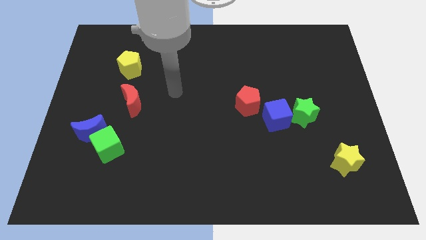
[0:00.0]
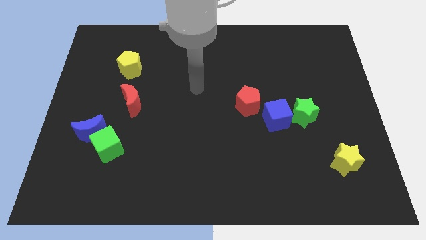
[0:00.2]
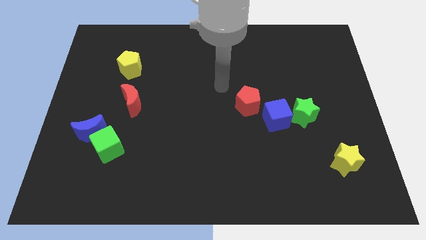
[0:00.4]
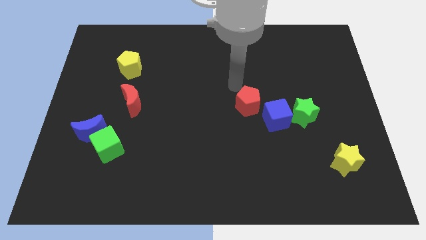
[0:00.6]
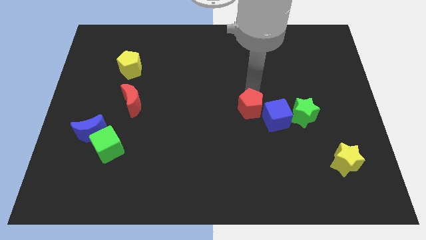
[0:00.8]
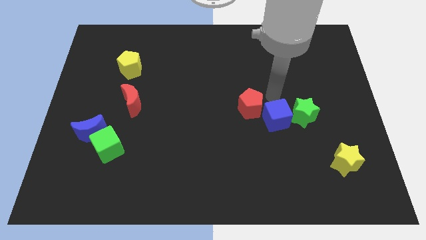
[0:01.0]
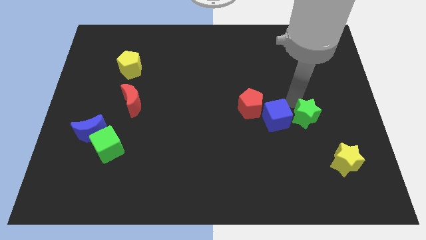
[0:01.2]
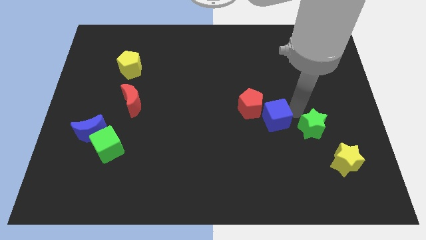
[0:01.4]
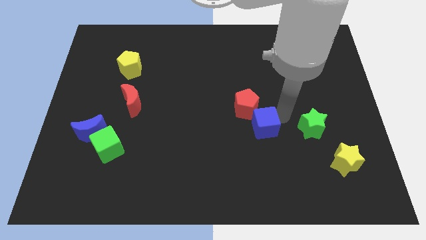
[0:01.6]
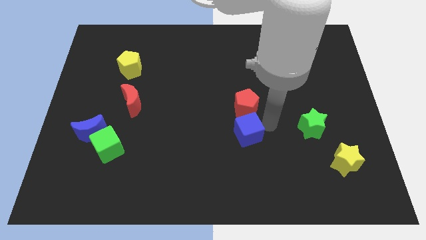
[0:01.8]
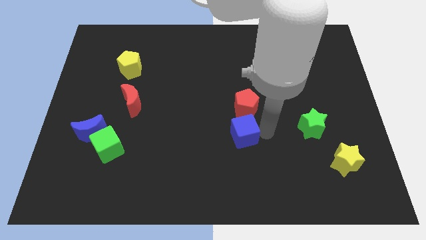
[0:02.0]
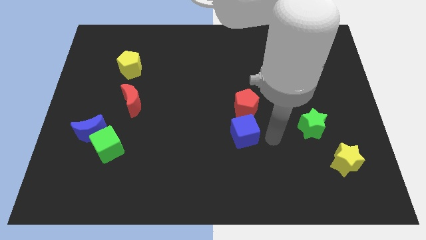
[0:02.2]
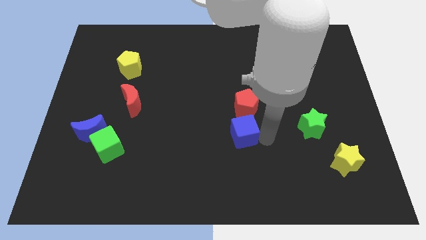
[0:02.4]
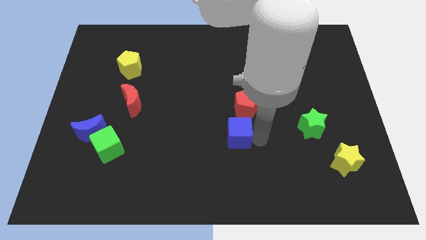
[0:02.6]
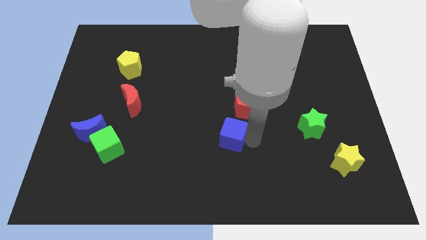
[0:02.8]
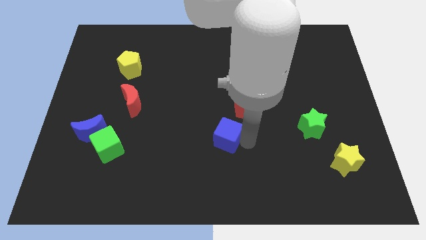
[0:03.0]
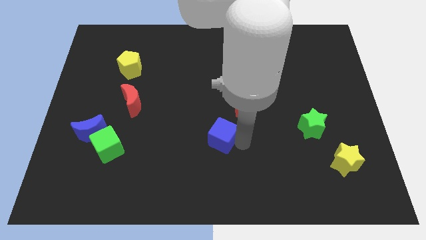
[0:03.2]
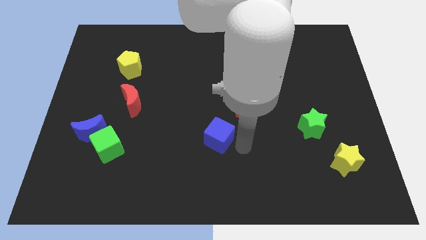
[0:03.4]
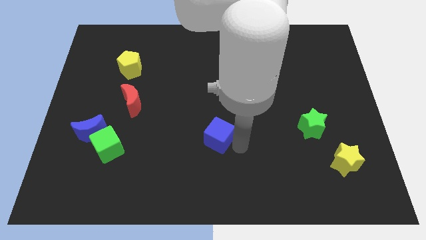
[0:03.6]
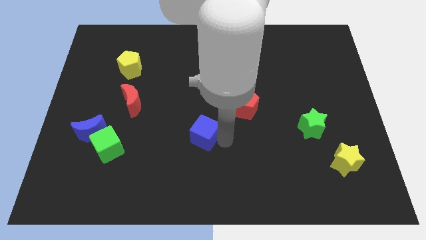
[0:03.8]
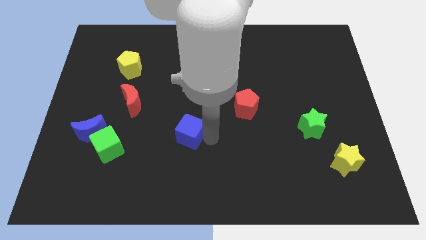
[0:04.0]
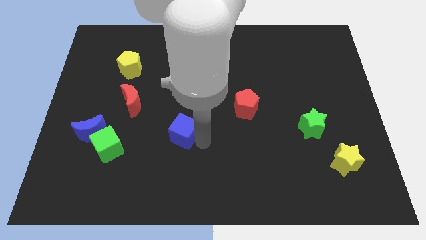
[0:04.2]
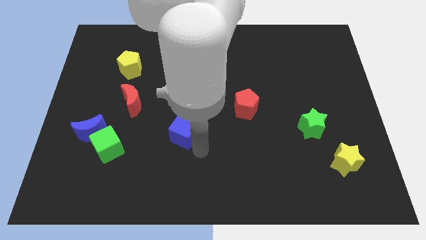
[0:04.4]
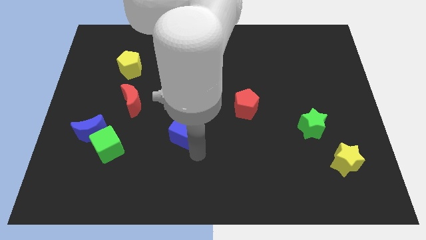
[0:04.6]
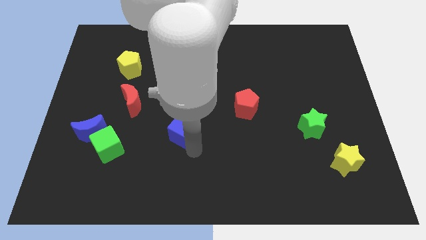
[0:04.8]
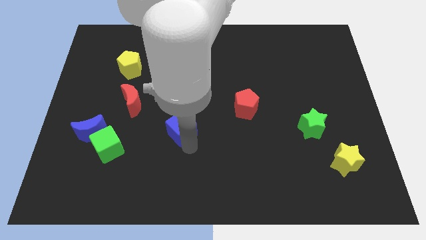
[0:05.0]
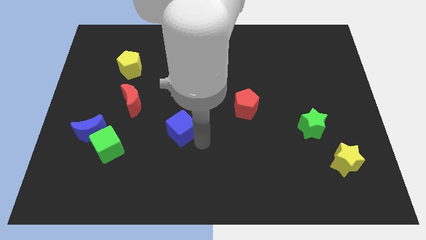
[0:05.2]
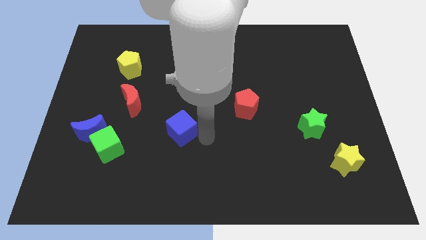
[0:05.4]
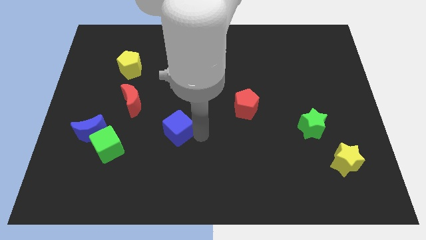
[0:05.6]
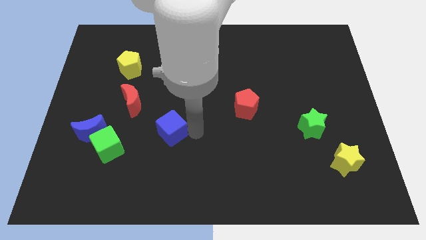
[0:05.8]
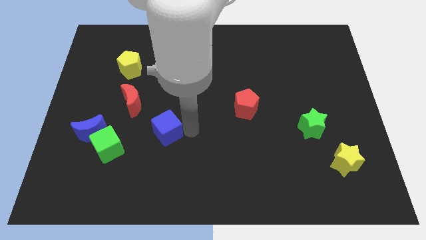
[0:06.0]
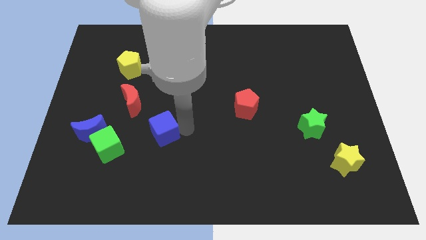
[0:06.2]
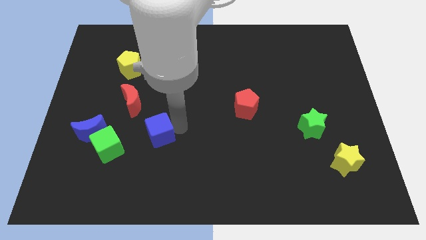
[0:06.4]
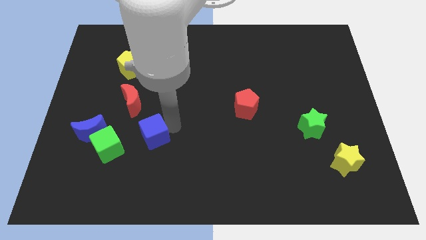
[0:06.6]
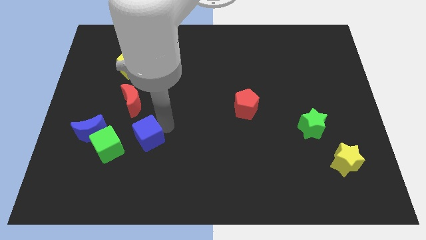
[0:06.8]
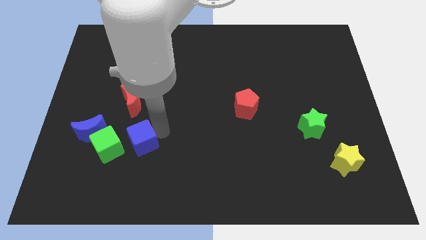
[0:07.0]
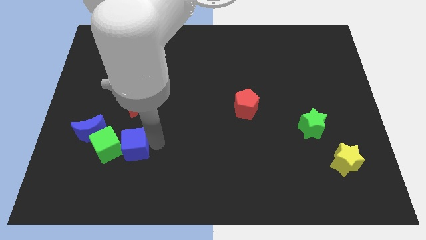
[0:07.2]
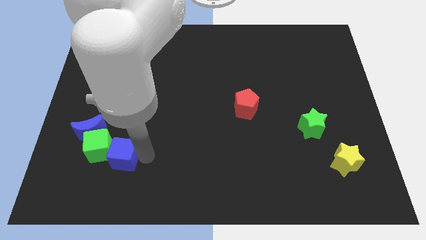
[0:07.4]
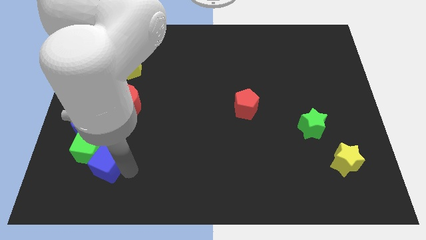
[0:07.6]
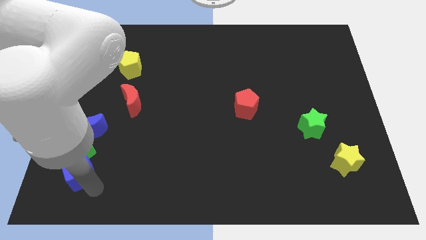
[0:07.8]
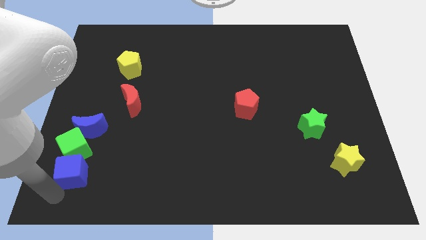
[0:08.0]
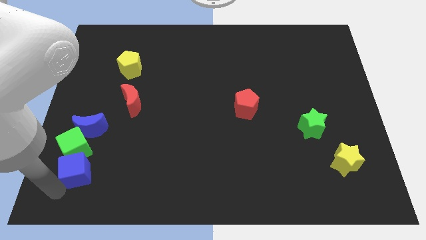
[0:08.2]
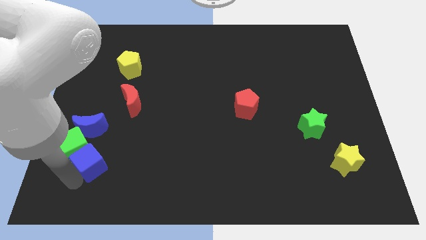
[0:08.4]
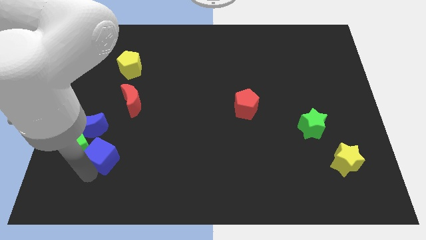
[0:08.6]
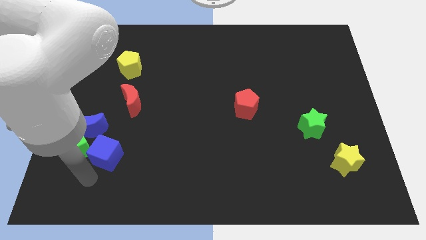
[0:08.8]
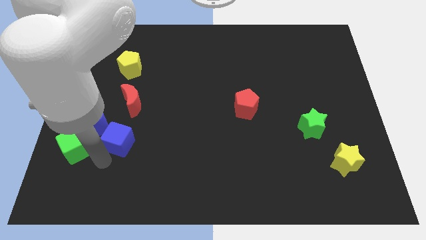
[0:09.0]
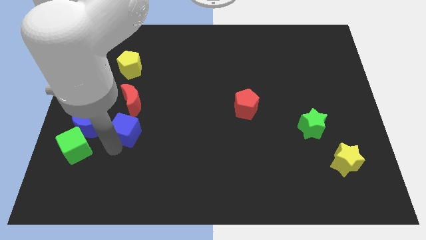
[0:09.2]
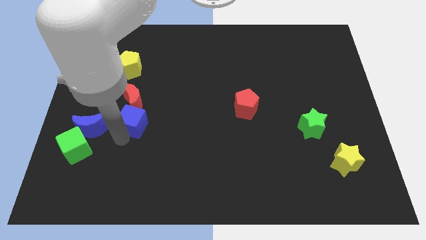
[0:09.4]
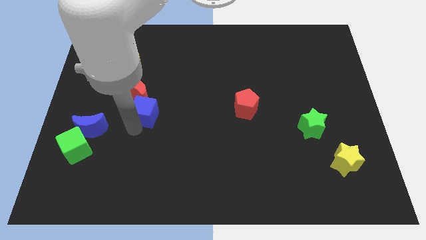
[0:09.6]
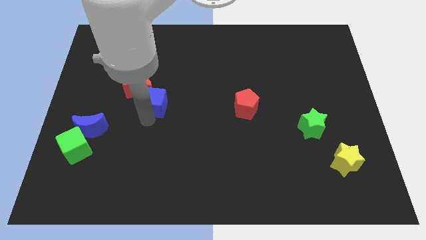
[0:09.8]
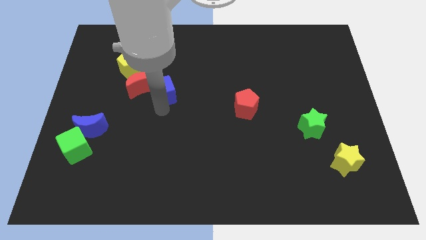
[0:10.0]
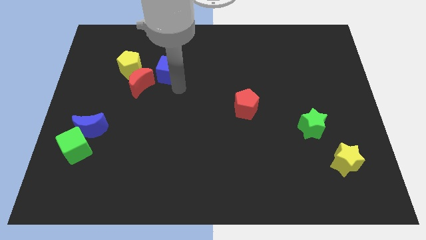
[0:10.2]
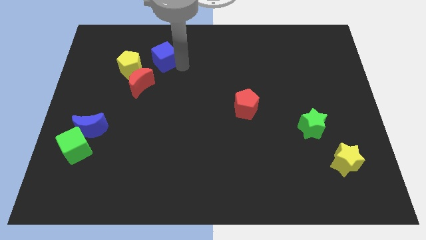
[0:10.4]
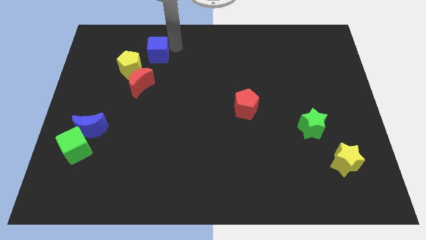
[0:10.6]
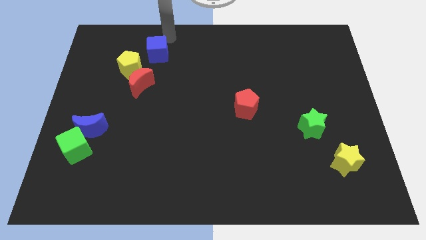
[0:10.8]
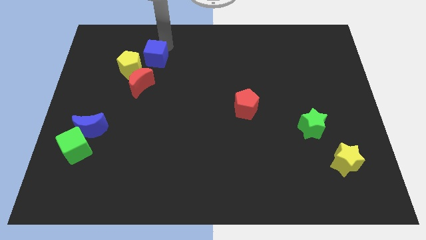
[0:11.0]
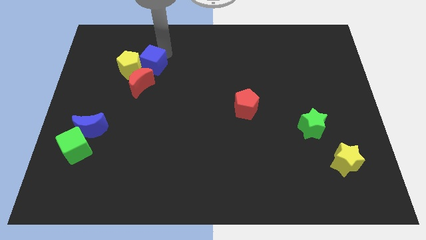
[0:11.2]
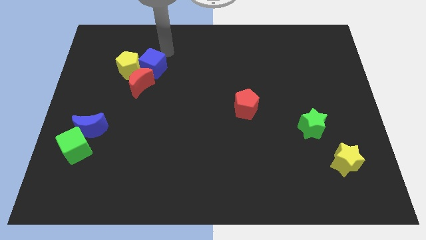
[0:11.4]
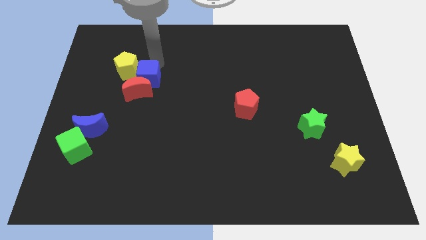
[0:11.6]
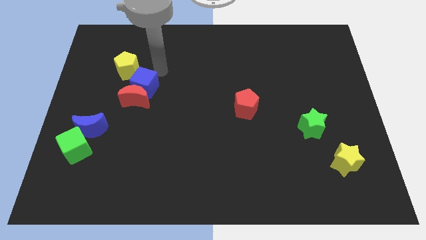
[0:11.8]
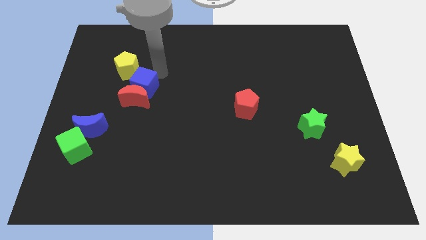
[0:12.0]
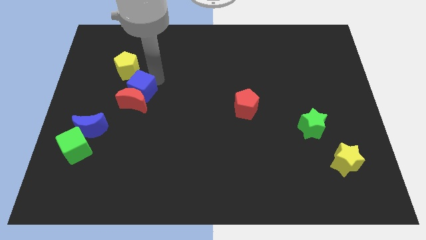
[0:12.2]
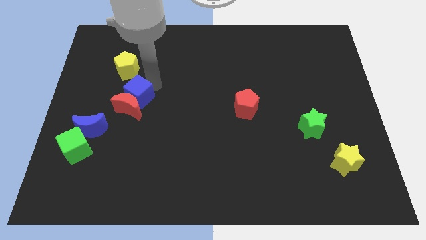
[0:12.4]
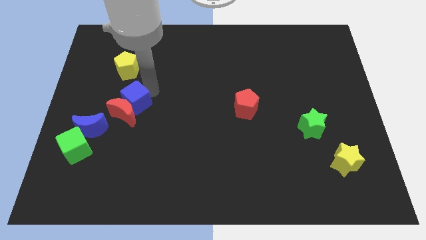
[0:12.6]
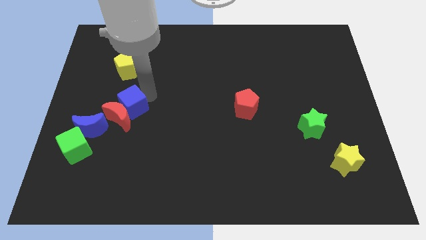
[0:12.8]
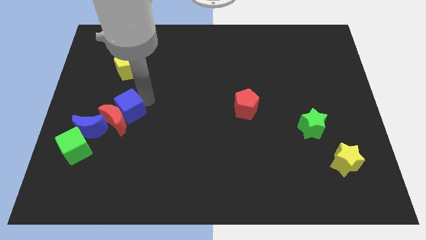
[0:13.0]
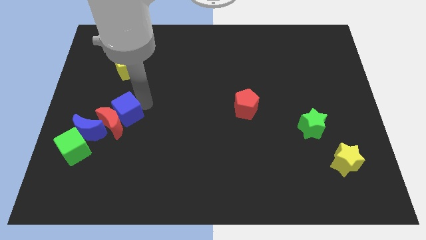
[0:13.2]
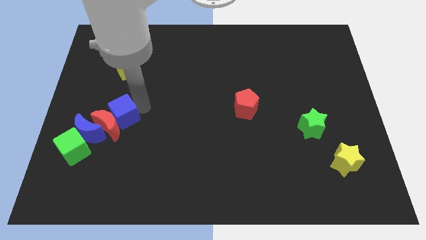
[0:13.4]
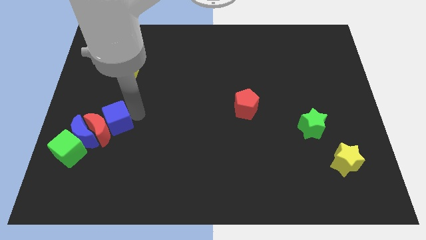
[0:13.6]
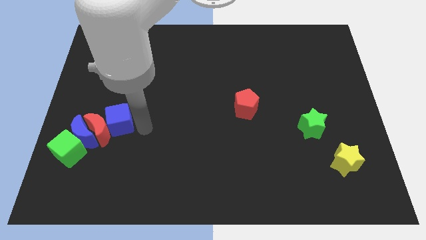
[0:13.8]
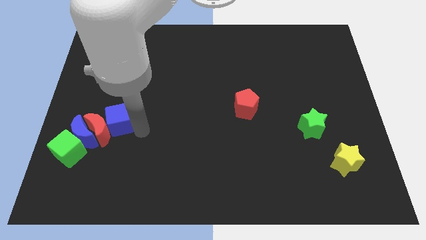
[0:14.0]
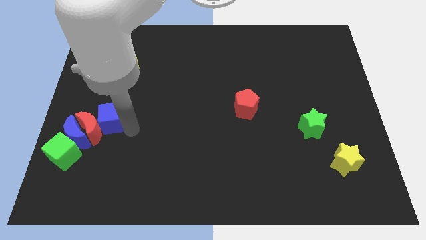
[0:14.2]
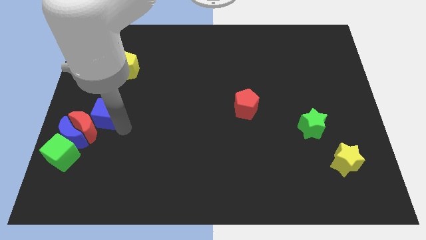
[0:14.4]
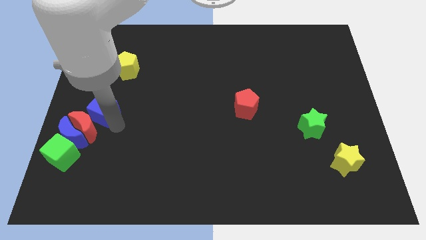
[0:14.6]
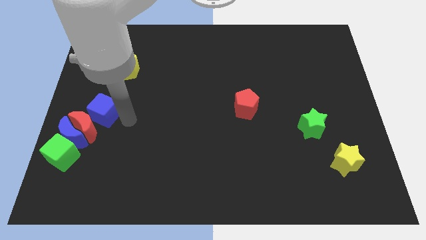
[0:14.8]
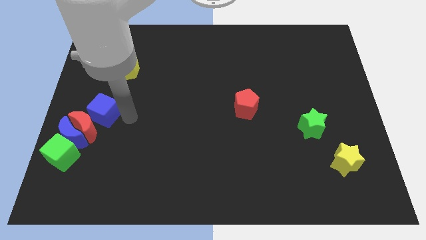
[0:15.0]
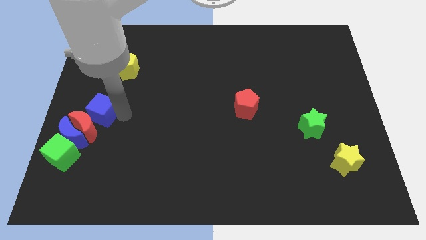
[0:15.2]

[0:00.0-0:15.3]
move the blue cube to the center left

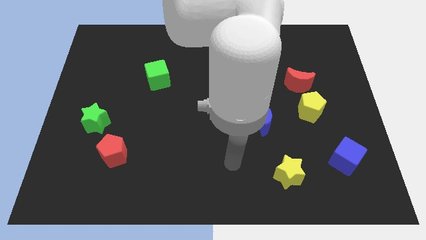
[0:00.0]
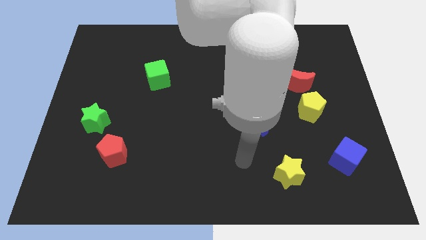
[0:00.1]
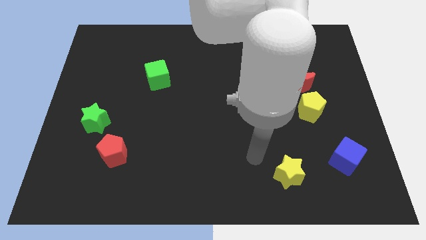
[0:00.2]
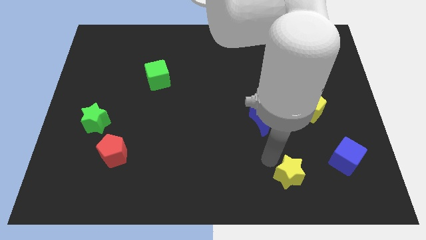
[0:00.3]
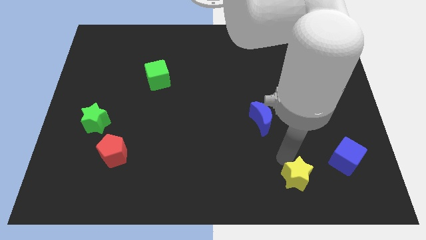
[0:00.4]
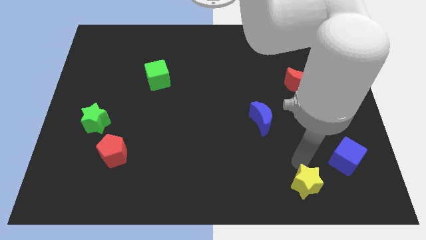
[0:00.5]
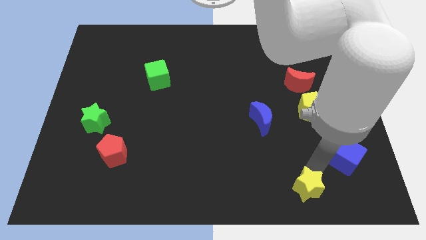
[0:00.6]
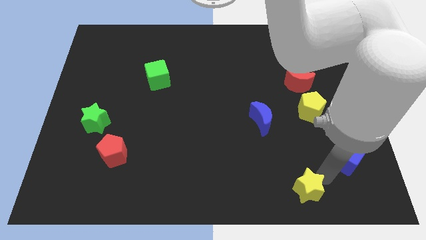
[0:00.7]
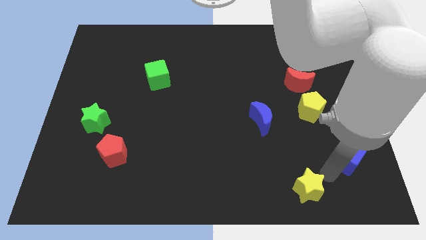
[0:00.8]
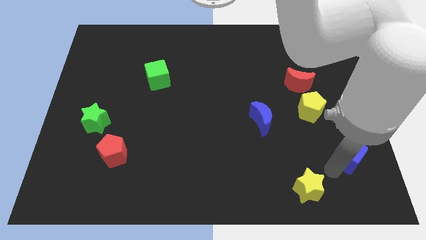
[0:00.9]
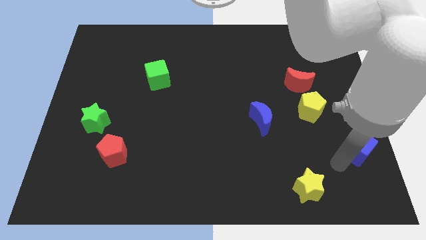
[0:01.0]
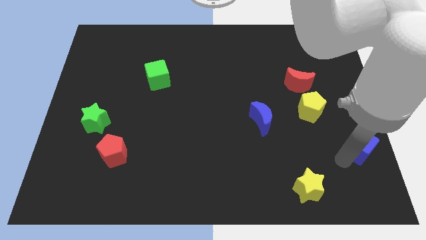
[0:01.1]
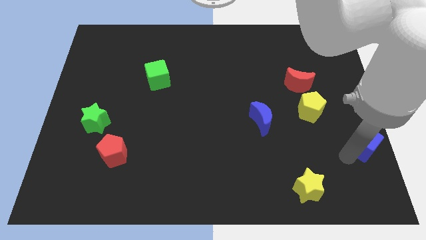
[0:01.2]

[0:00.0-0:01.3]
slide the blue cube to the right side
